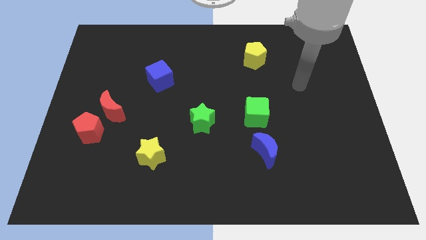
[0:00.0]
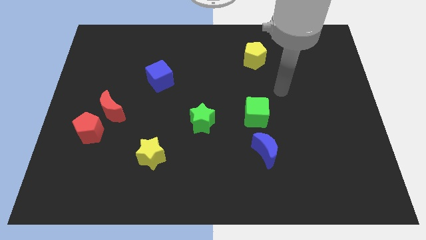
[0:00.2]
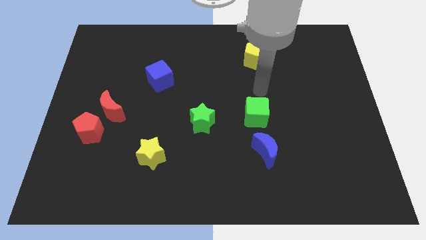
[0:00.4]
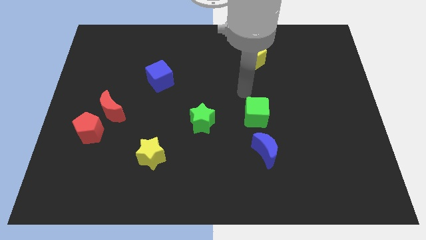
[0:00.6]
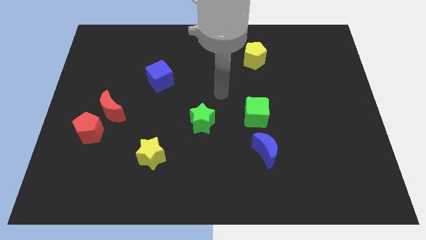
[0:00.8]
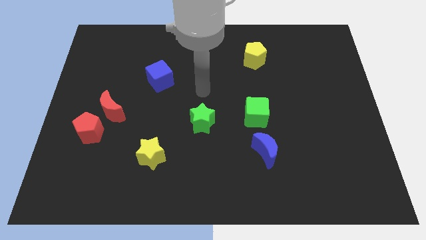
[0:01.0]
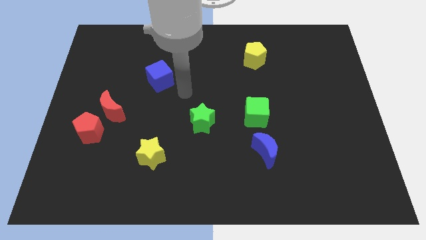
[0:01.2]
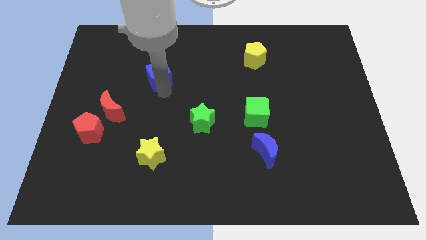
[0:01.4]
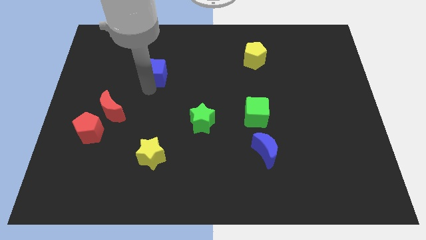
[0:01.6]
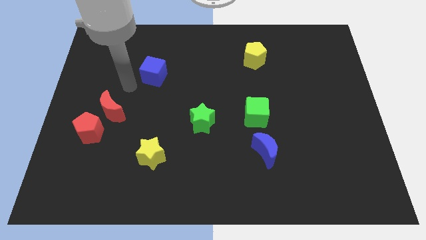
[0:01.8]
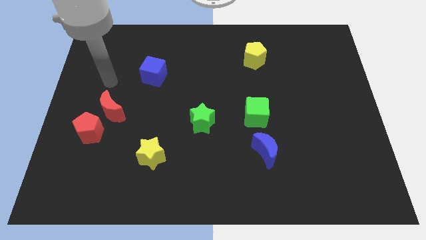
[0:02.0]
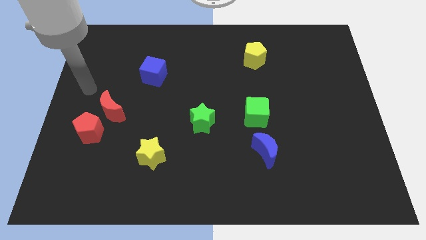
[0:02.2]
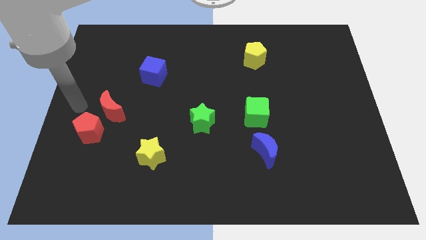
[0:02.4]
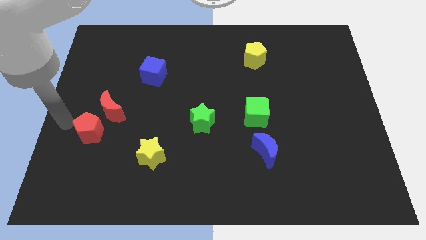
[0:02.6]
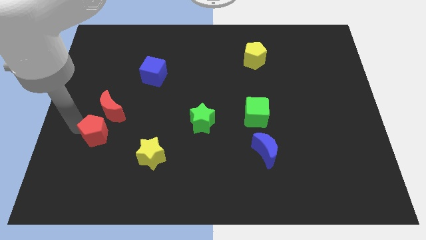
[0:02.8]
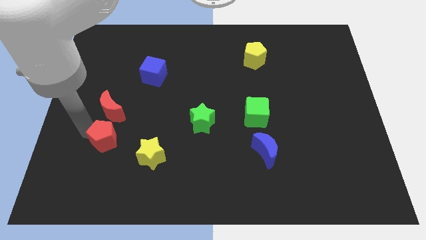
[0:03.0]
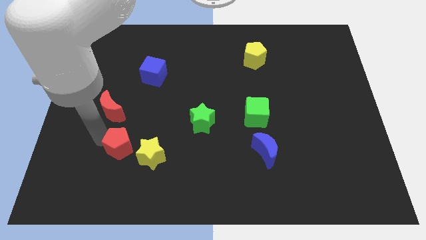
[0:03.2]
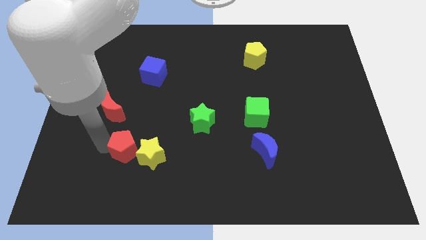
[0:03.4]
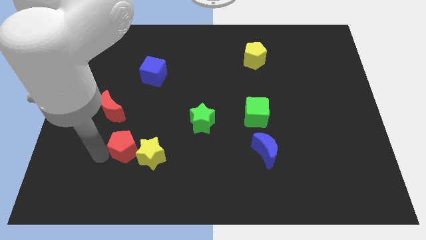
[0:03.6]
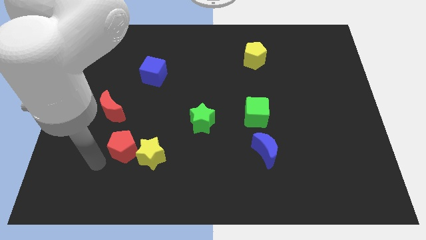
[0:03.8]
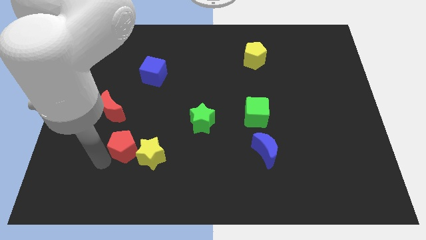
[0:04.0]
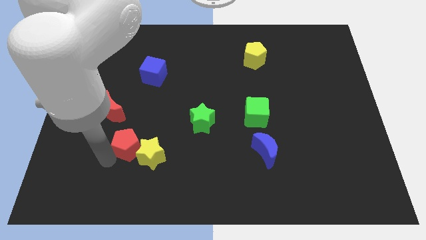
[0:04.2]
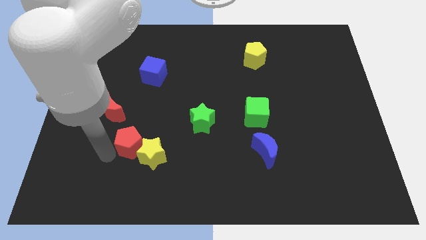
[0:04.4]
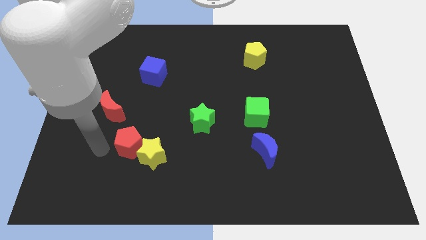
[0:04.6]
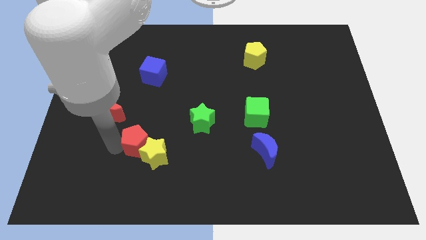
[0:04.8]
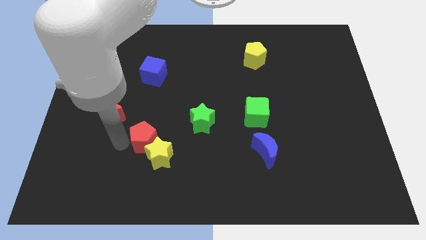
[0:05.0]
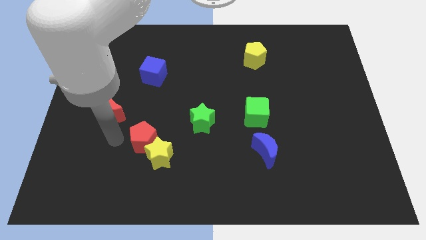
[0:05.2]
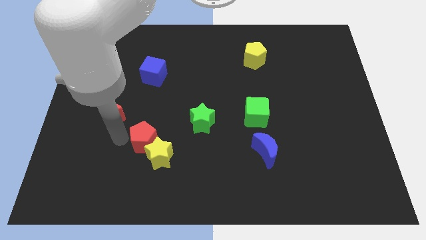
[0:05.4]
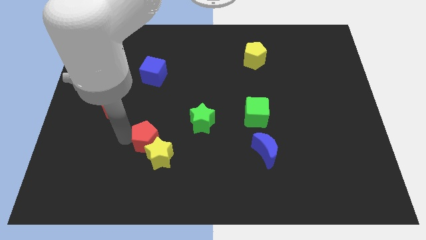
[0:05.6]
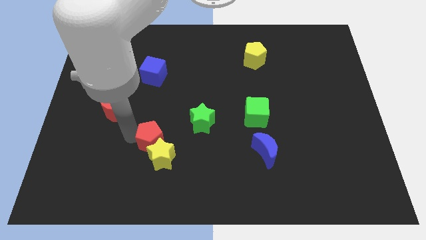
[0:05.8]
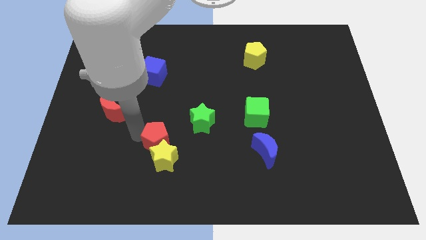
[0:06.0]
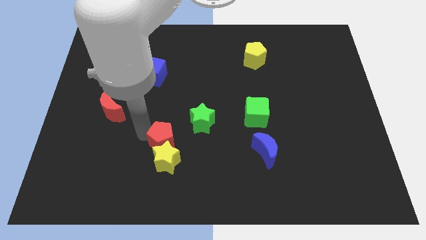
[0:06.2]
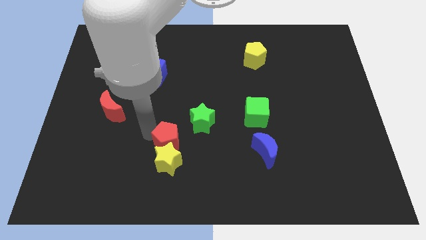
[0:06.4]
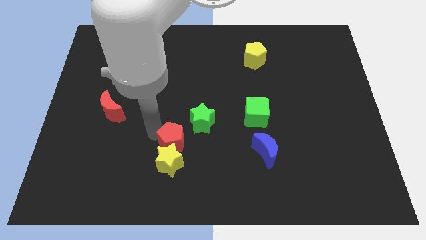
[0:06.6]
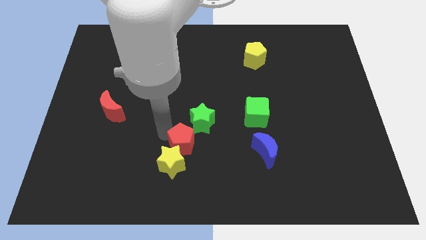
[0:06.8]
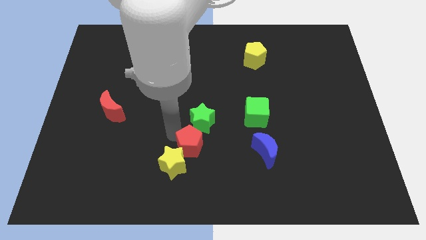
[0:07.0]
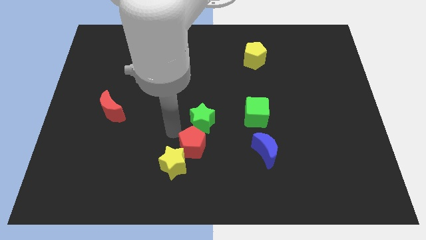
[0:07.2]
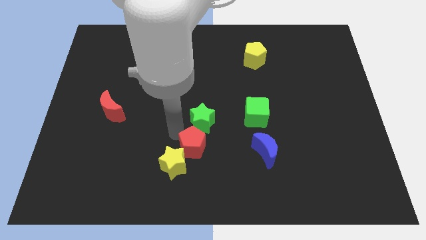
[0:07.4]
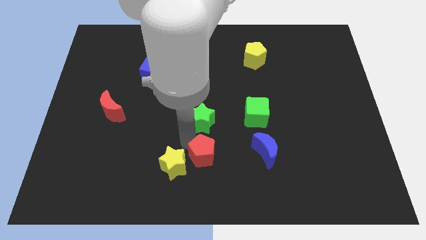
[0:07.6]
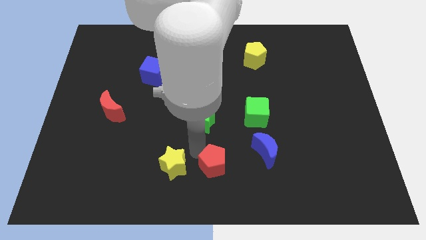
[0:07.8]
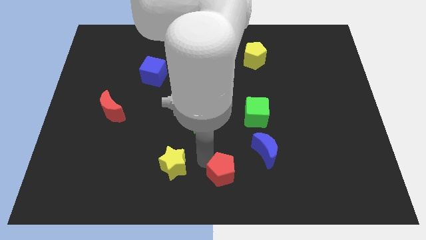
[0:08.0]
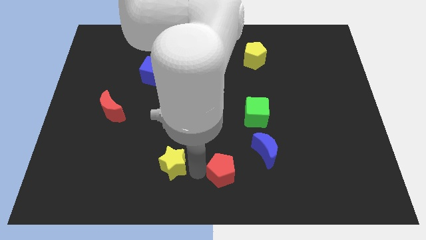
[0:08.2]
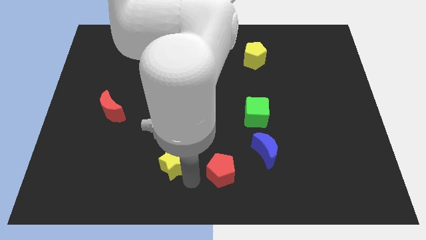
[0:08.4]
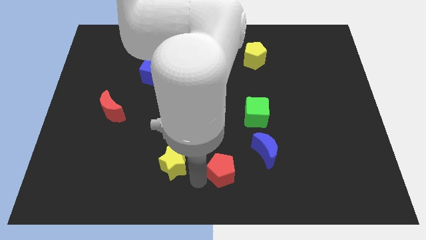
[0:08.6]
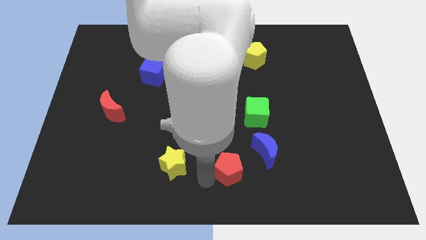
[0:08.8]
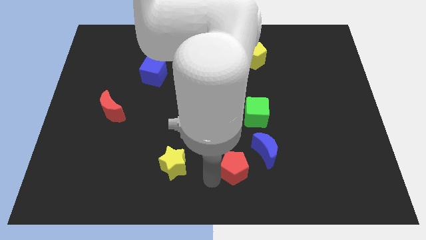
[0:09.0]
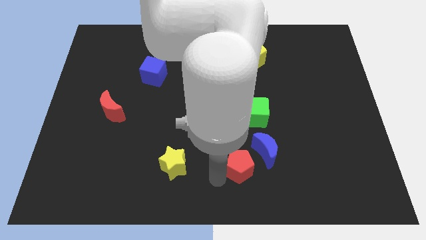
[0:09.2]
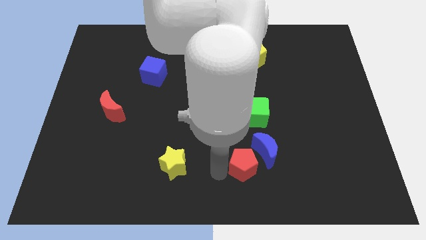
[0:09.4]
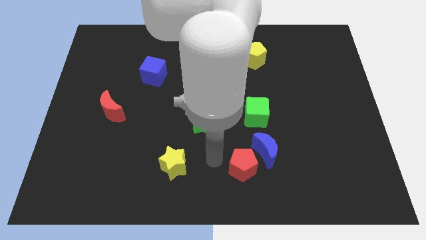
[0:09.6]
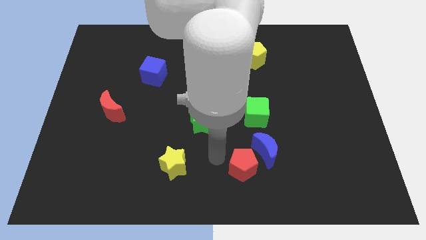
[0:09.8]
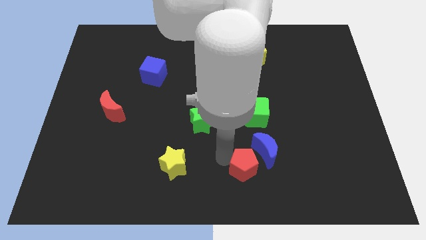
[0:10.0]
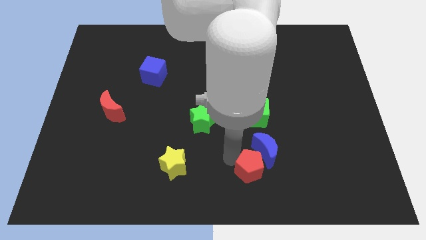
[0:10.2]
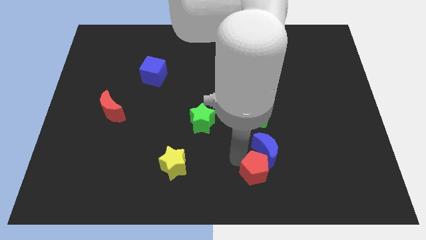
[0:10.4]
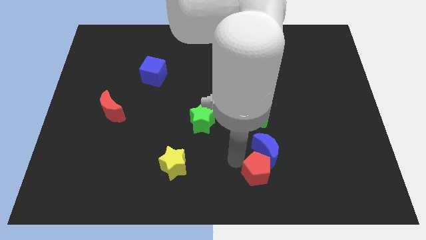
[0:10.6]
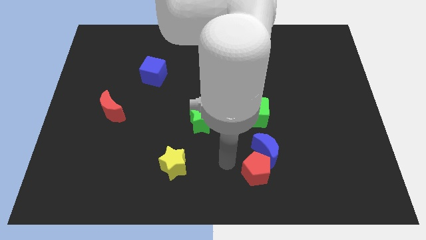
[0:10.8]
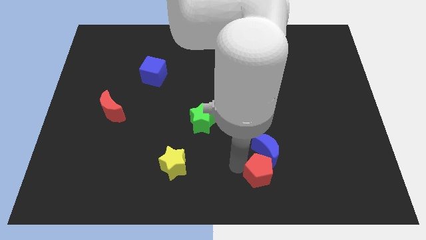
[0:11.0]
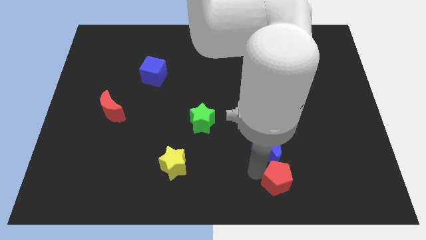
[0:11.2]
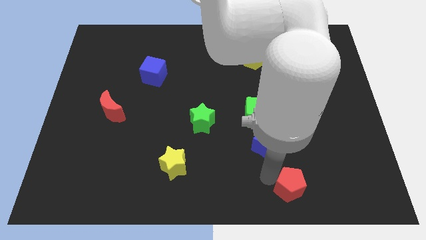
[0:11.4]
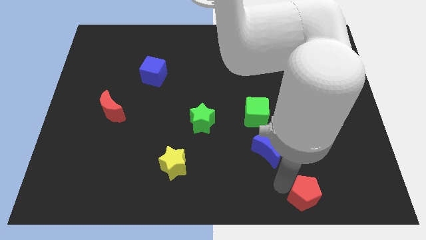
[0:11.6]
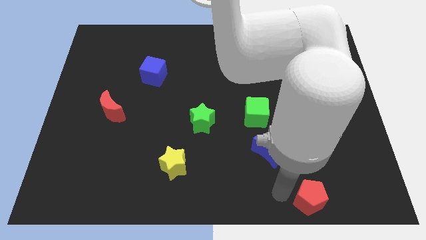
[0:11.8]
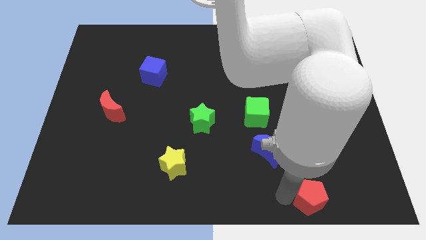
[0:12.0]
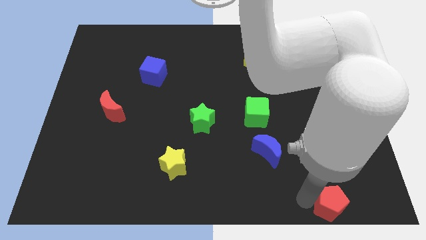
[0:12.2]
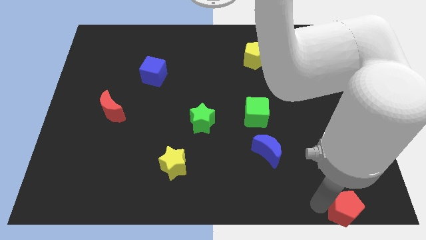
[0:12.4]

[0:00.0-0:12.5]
put the red pentagon to the lower right corner
